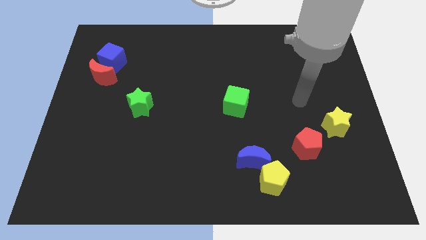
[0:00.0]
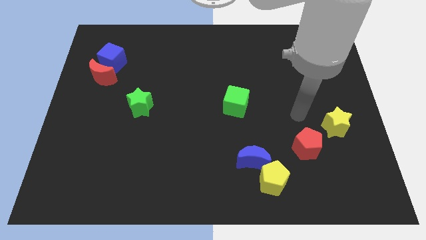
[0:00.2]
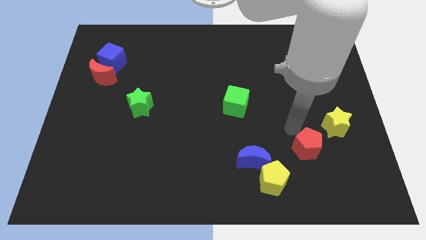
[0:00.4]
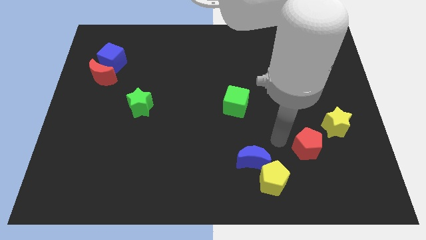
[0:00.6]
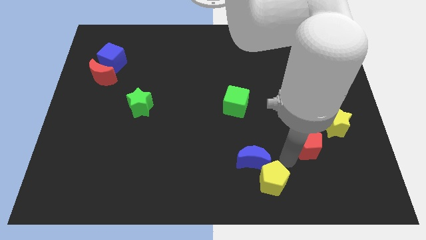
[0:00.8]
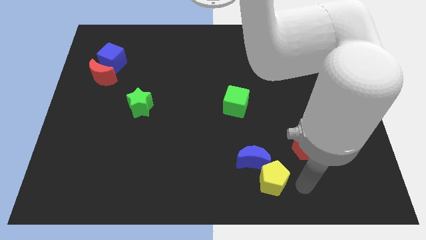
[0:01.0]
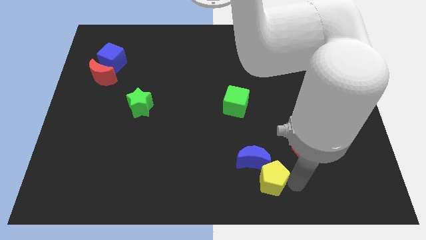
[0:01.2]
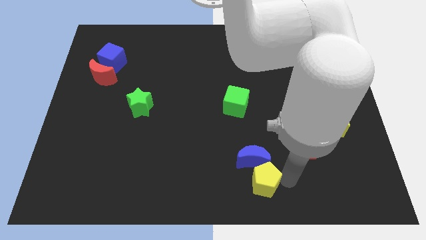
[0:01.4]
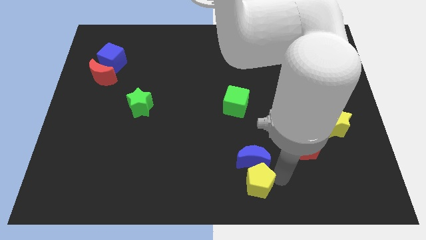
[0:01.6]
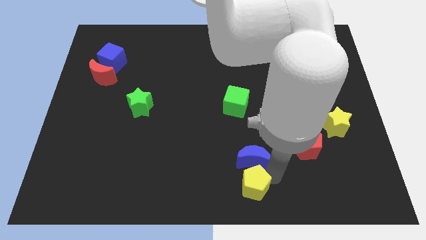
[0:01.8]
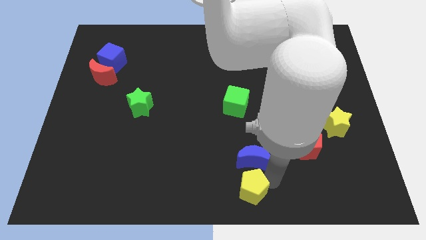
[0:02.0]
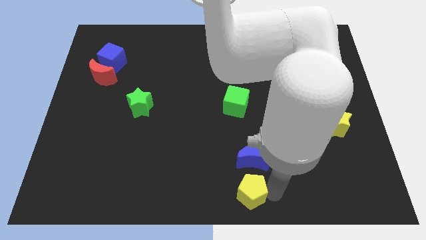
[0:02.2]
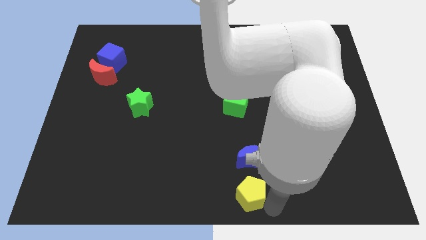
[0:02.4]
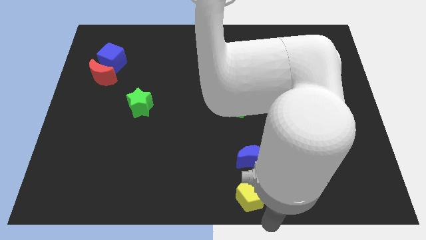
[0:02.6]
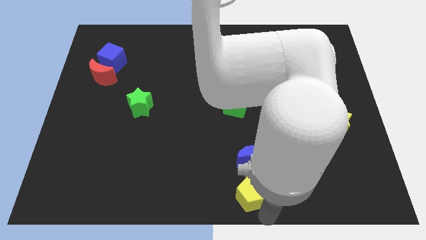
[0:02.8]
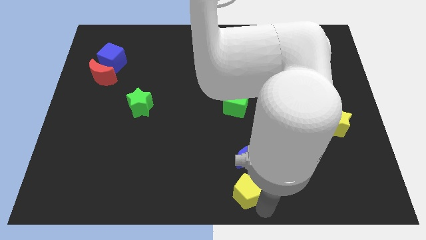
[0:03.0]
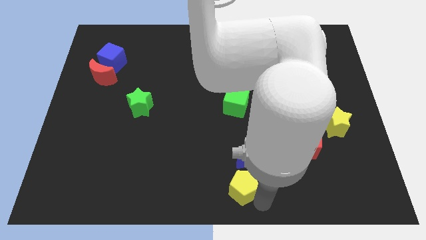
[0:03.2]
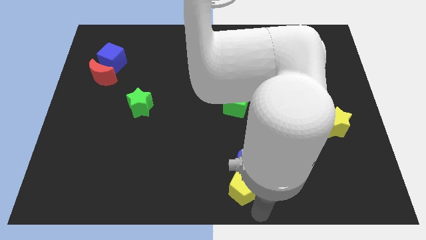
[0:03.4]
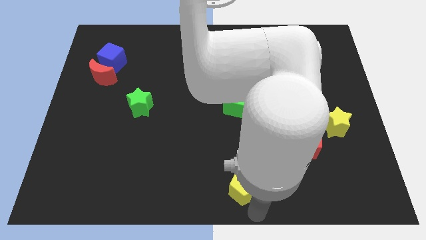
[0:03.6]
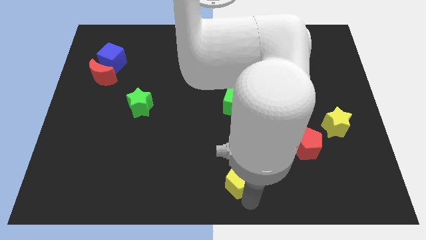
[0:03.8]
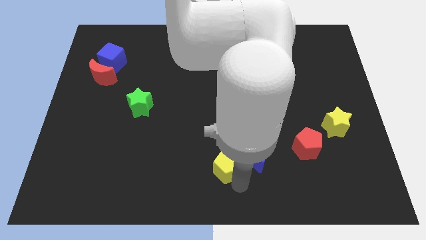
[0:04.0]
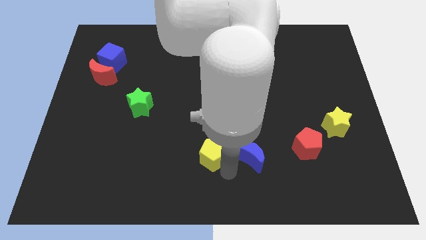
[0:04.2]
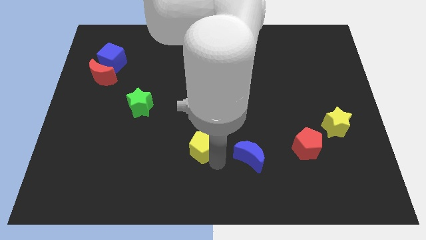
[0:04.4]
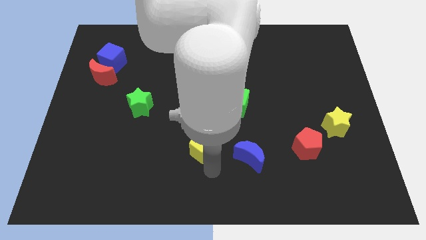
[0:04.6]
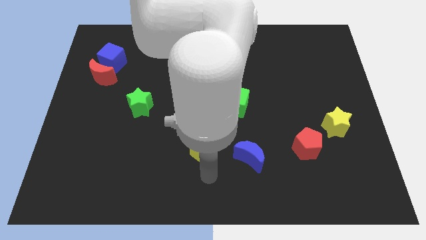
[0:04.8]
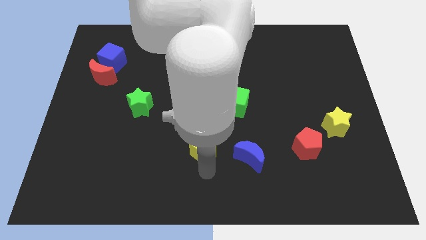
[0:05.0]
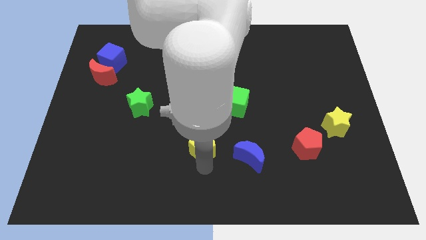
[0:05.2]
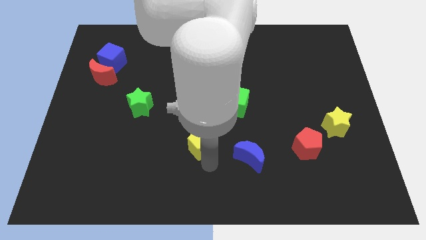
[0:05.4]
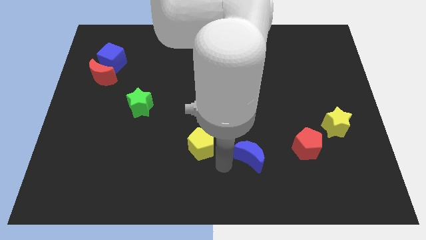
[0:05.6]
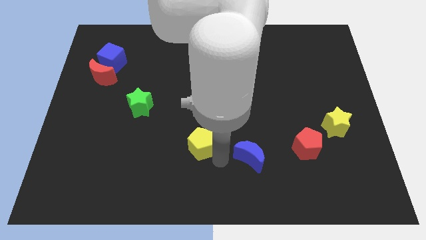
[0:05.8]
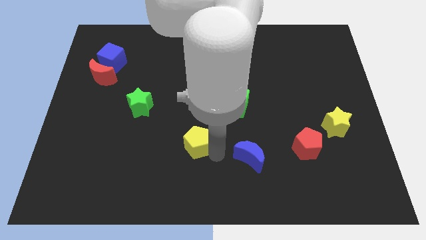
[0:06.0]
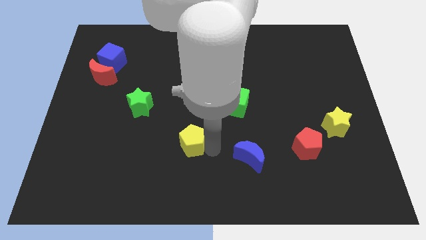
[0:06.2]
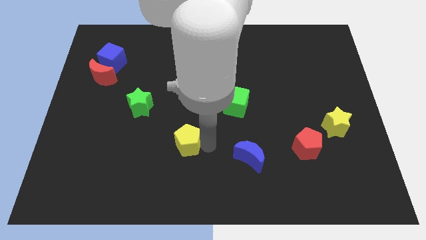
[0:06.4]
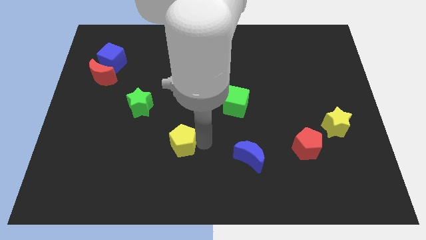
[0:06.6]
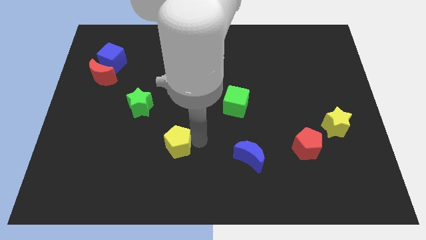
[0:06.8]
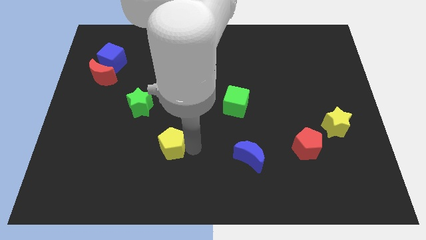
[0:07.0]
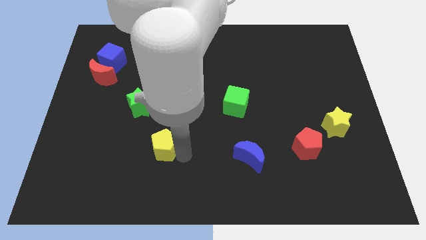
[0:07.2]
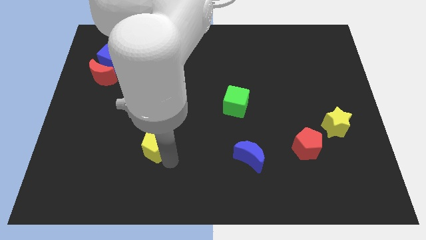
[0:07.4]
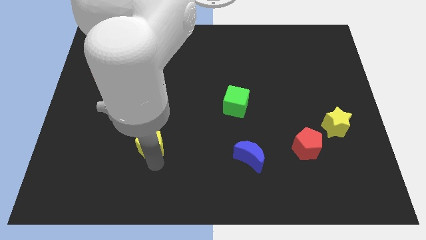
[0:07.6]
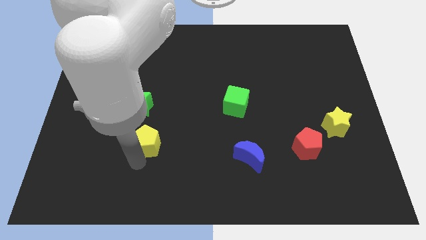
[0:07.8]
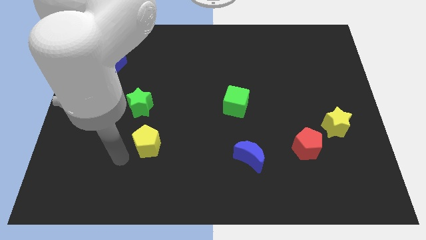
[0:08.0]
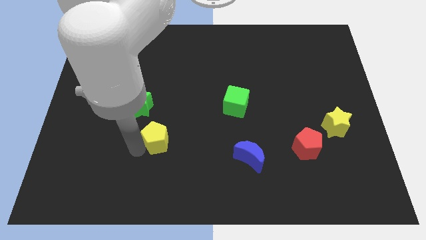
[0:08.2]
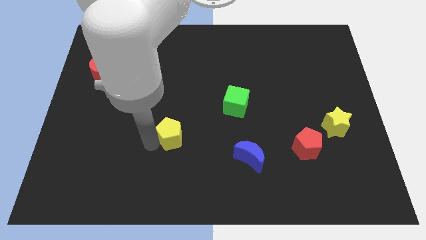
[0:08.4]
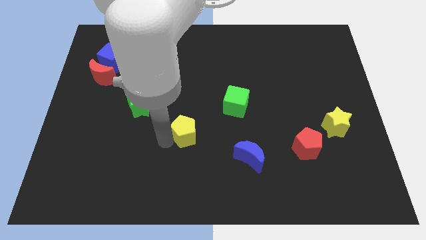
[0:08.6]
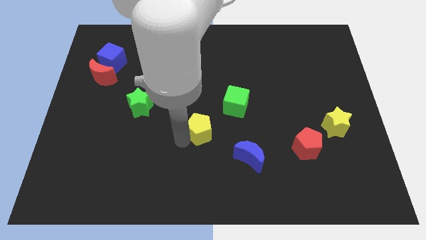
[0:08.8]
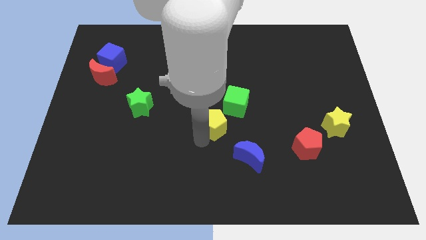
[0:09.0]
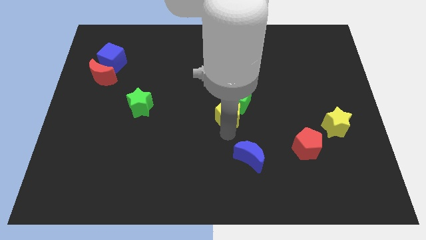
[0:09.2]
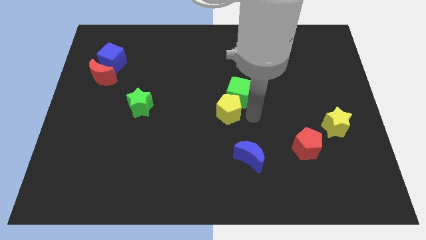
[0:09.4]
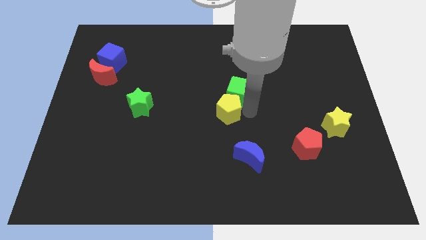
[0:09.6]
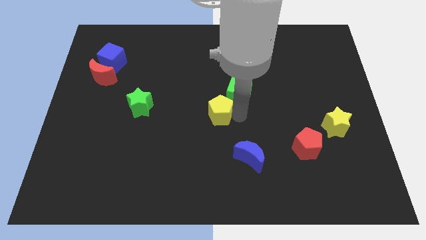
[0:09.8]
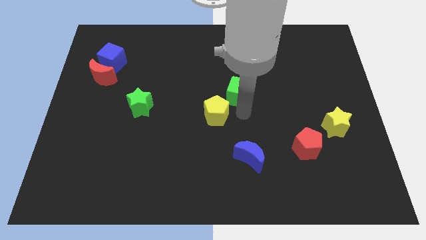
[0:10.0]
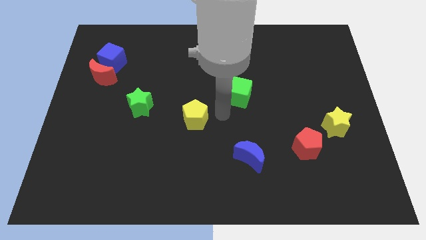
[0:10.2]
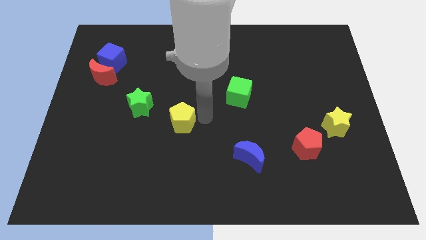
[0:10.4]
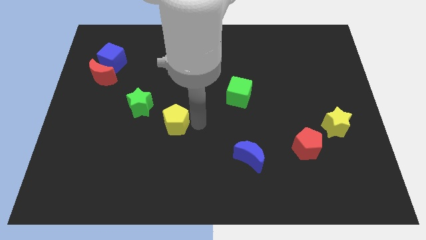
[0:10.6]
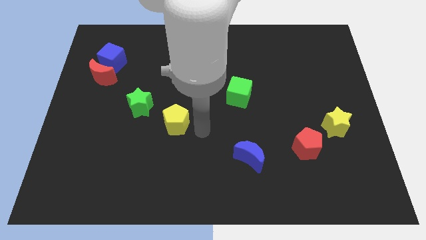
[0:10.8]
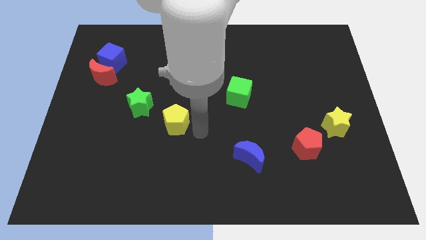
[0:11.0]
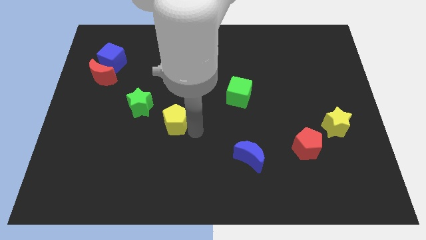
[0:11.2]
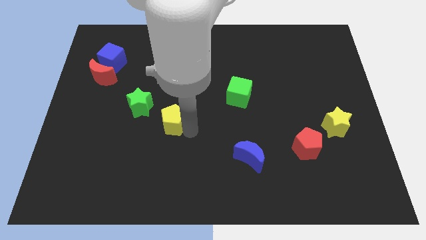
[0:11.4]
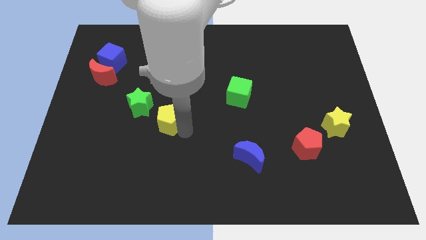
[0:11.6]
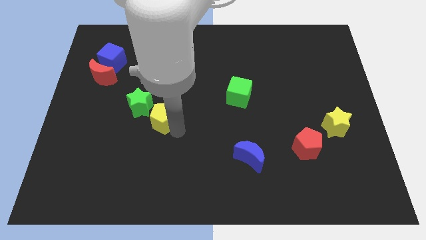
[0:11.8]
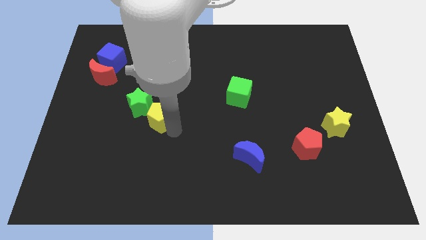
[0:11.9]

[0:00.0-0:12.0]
slide the yellow pentagon to the green star

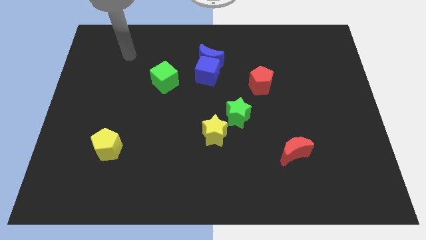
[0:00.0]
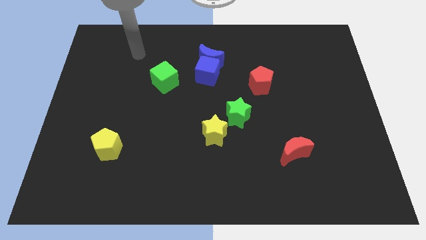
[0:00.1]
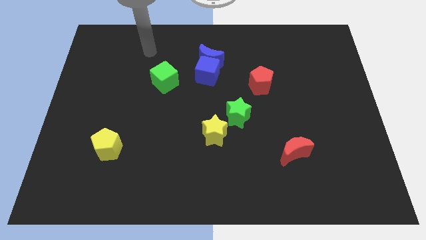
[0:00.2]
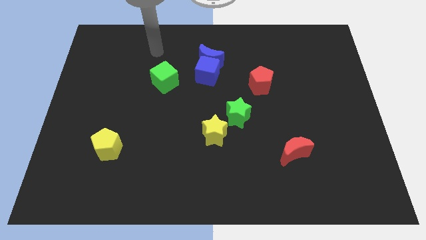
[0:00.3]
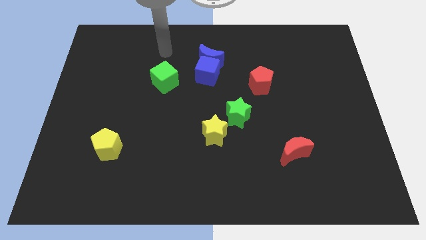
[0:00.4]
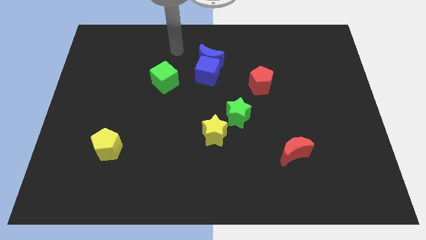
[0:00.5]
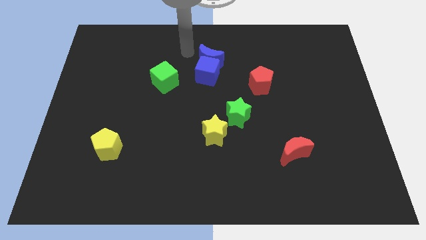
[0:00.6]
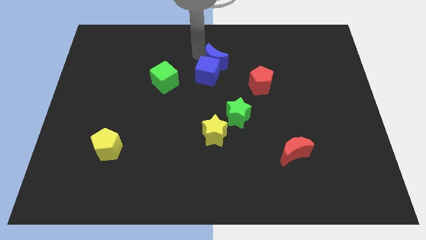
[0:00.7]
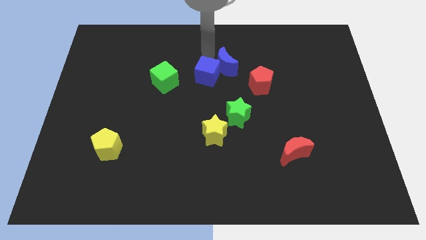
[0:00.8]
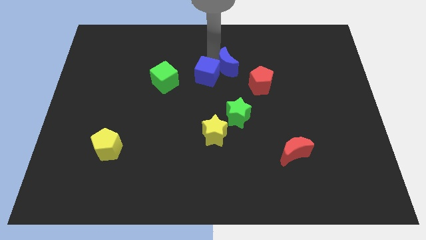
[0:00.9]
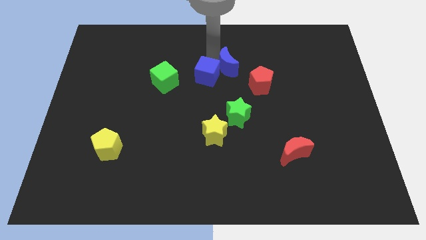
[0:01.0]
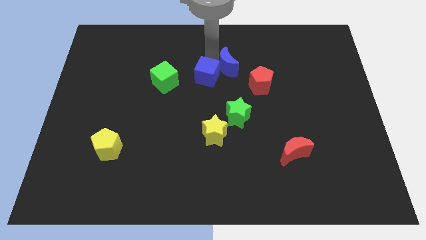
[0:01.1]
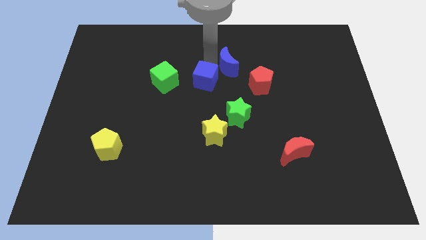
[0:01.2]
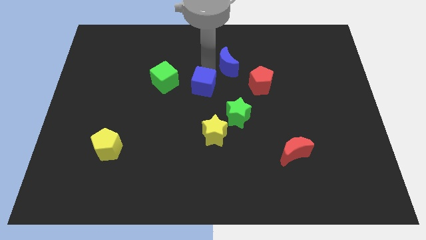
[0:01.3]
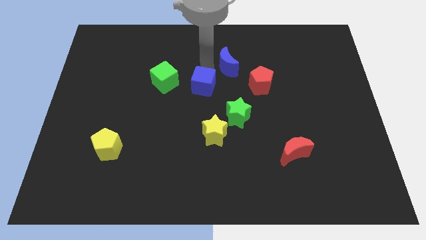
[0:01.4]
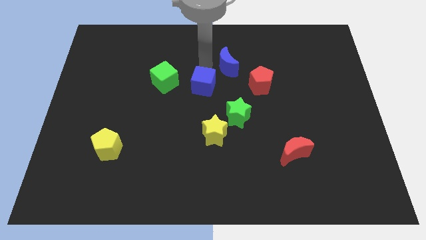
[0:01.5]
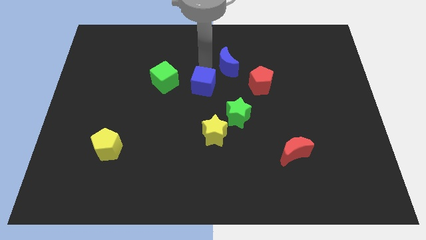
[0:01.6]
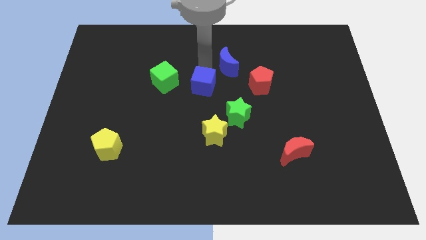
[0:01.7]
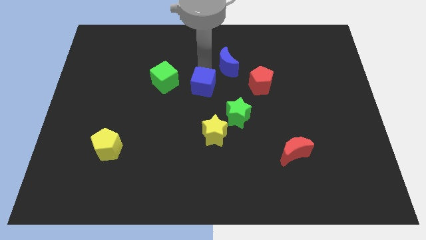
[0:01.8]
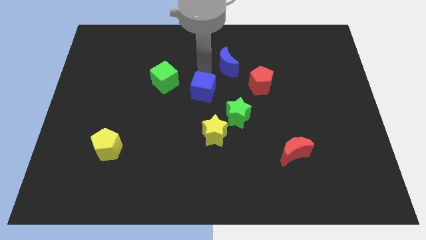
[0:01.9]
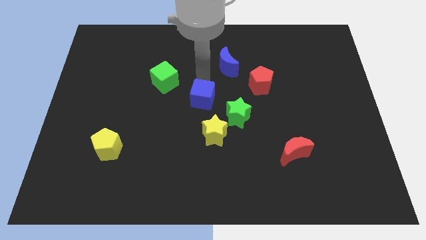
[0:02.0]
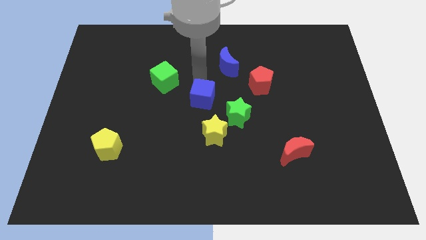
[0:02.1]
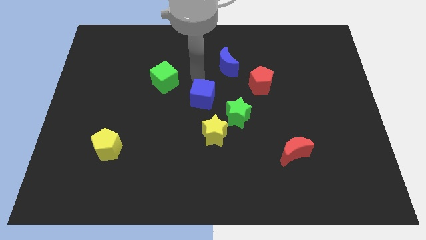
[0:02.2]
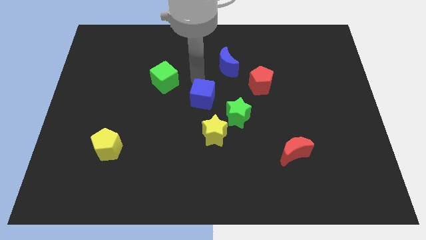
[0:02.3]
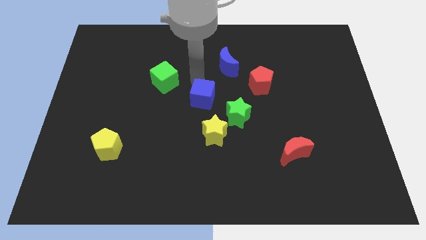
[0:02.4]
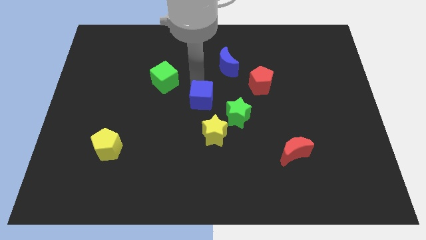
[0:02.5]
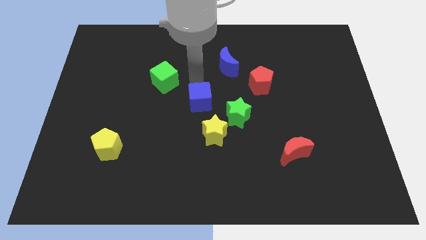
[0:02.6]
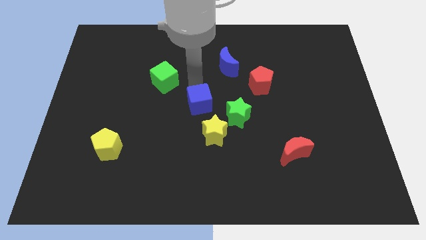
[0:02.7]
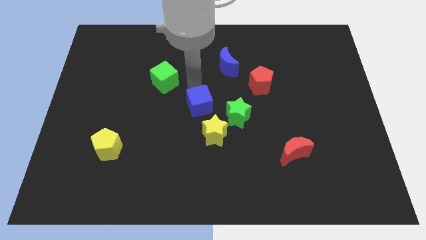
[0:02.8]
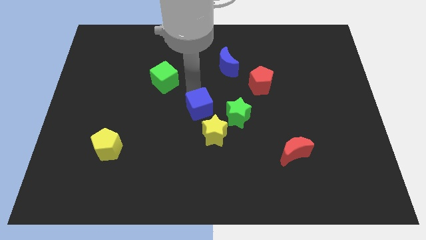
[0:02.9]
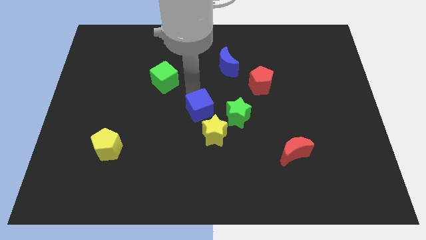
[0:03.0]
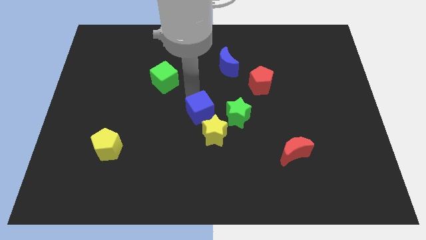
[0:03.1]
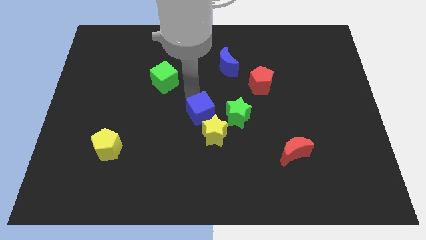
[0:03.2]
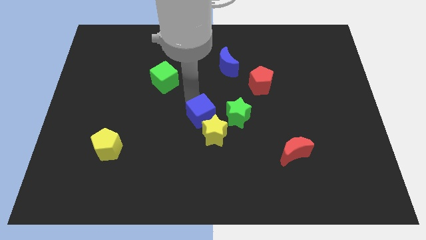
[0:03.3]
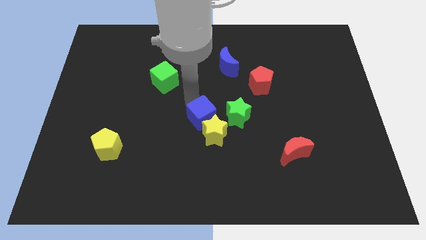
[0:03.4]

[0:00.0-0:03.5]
move the blue cube to the yellow star
